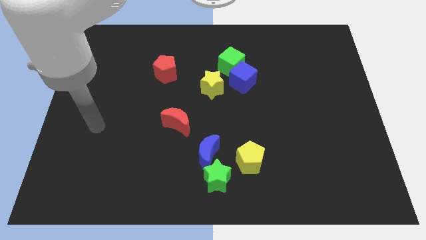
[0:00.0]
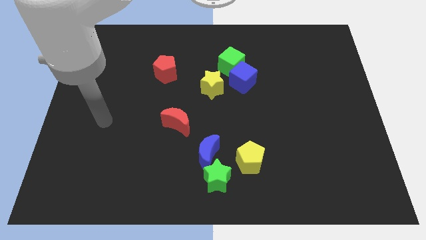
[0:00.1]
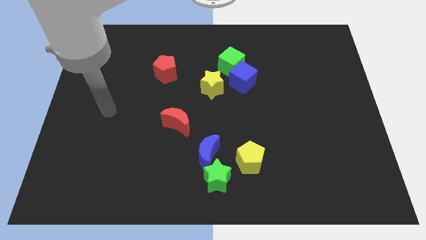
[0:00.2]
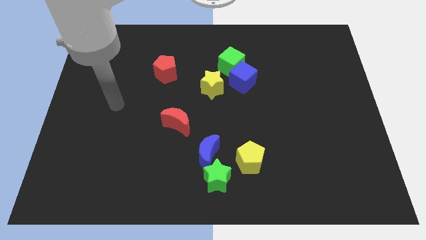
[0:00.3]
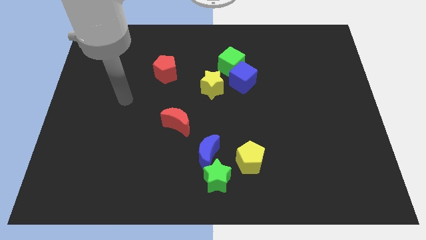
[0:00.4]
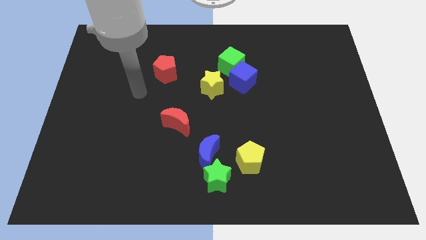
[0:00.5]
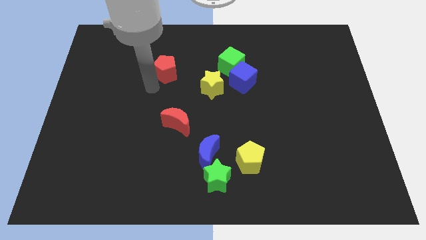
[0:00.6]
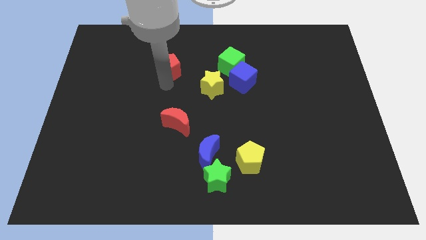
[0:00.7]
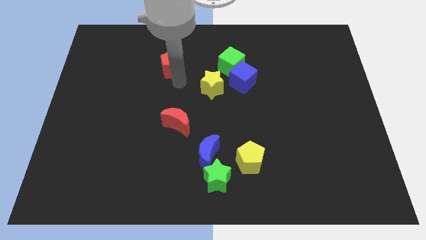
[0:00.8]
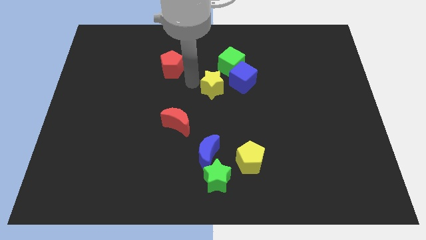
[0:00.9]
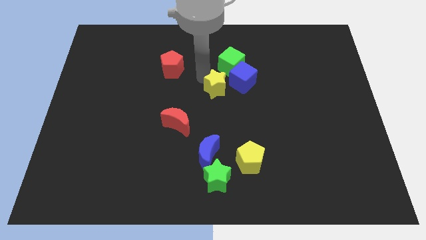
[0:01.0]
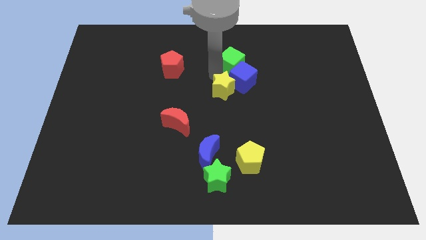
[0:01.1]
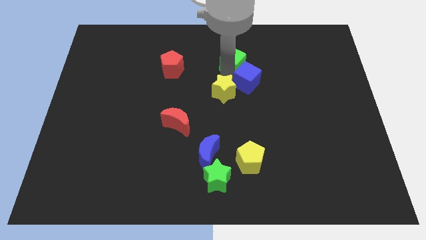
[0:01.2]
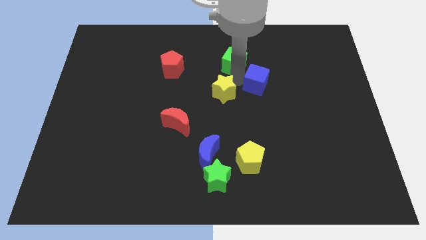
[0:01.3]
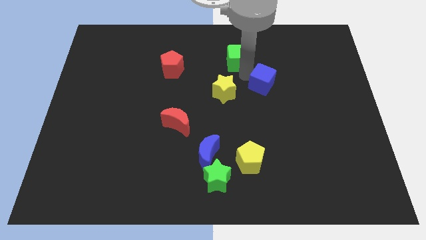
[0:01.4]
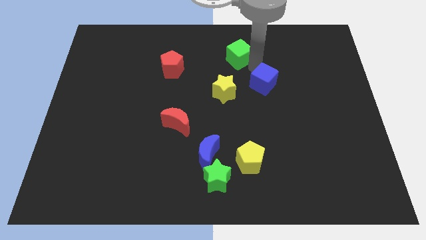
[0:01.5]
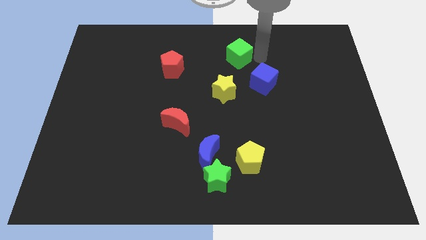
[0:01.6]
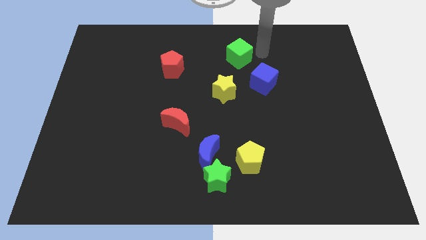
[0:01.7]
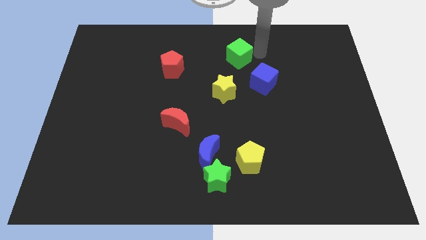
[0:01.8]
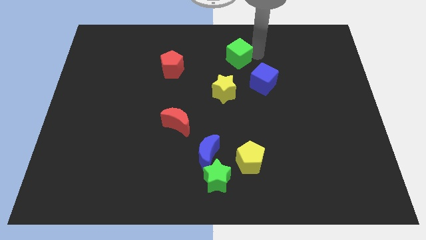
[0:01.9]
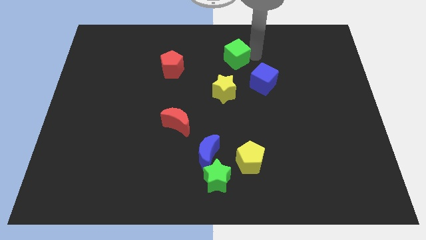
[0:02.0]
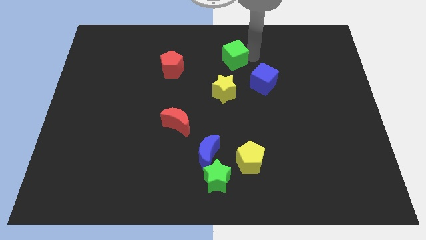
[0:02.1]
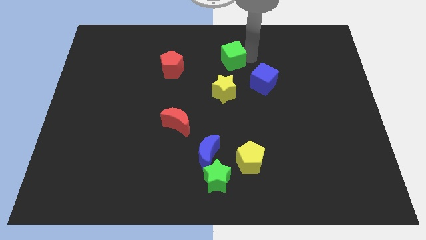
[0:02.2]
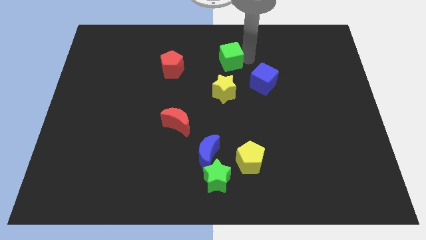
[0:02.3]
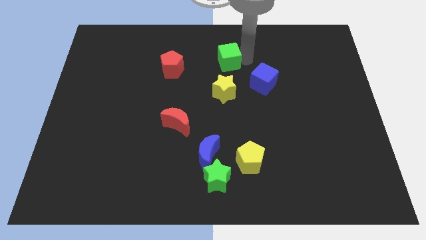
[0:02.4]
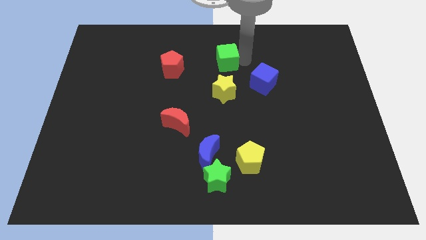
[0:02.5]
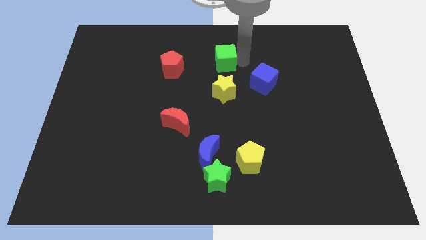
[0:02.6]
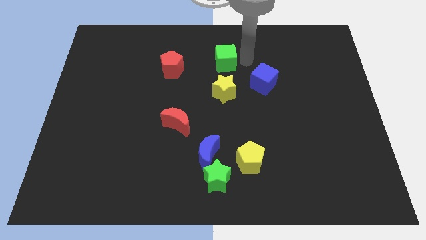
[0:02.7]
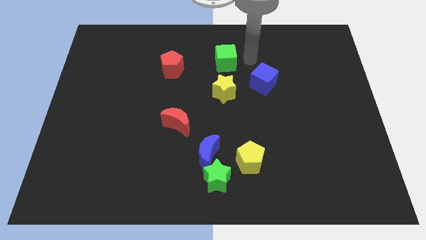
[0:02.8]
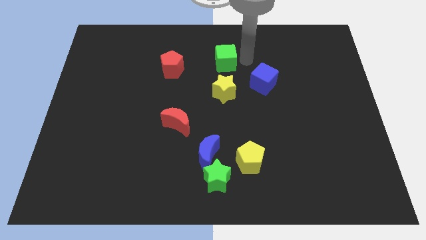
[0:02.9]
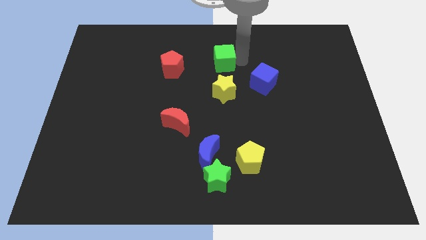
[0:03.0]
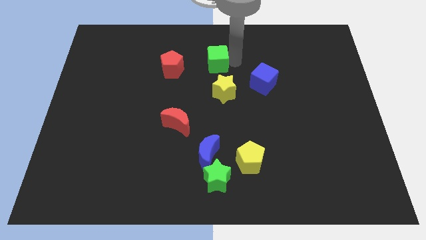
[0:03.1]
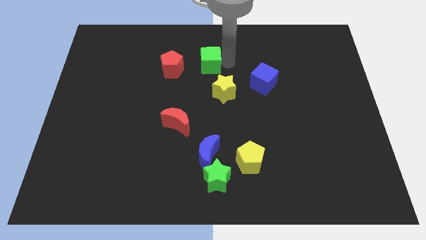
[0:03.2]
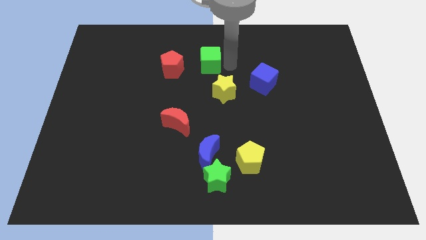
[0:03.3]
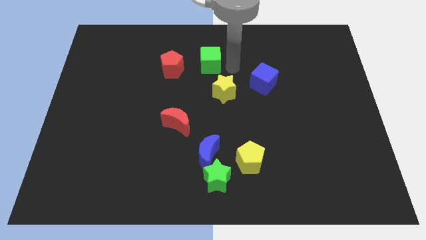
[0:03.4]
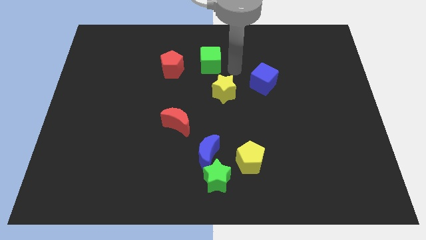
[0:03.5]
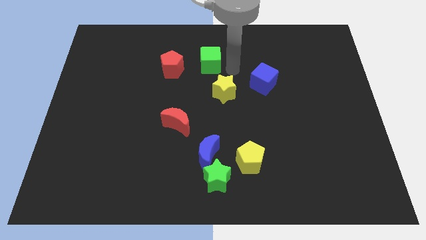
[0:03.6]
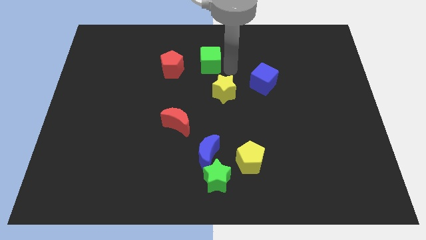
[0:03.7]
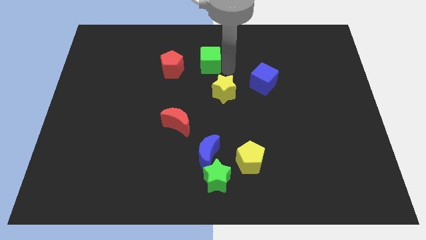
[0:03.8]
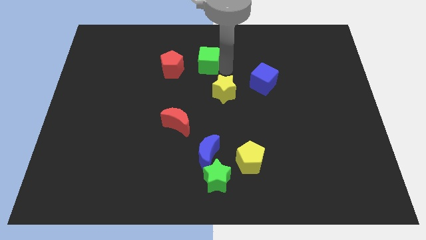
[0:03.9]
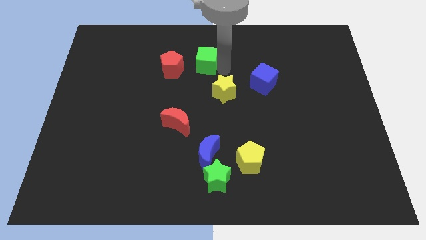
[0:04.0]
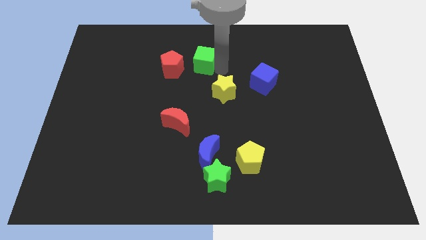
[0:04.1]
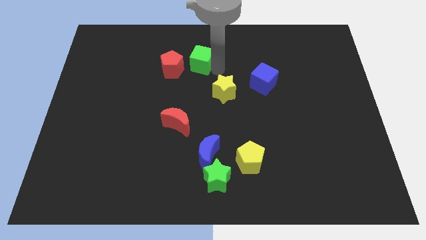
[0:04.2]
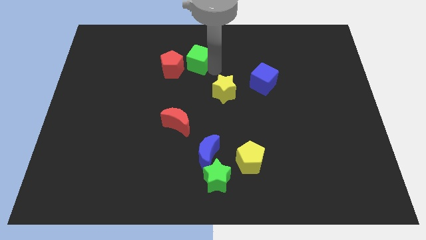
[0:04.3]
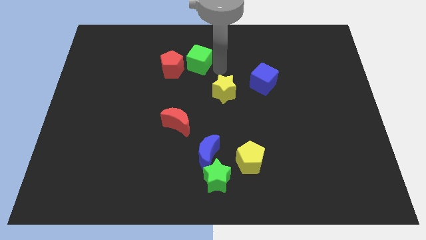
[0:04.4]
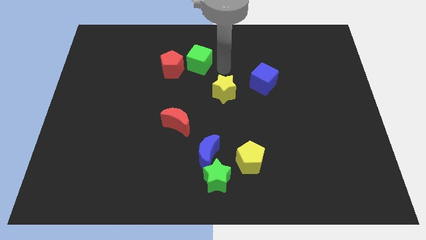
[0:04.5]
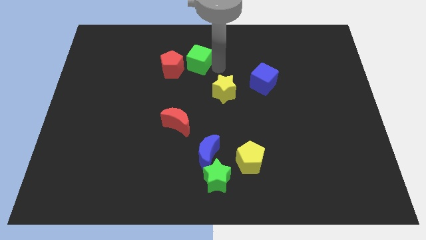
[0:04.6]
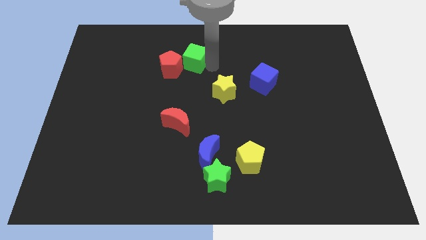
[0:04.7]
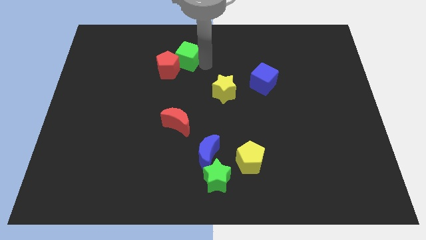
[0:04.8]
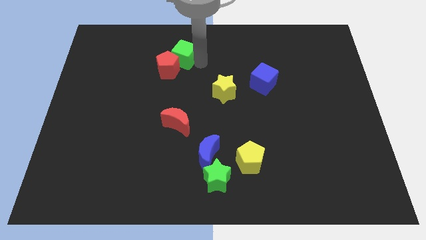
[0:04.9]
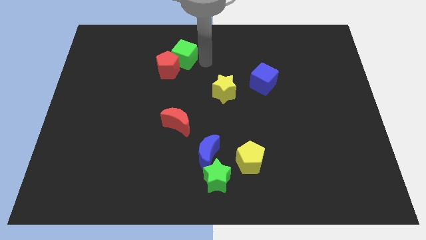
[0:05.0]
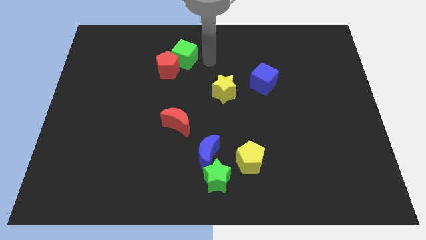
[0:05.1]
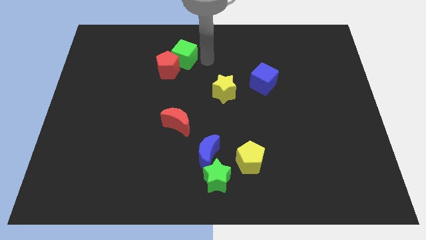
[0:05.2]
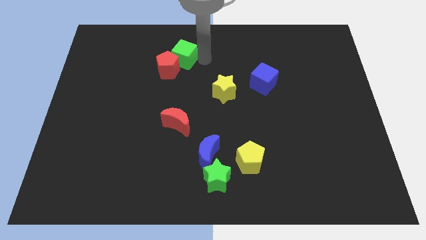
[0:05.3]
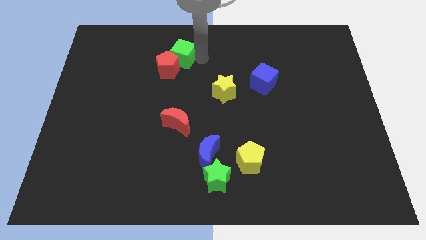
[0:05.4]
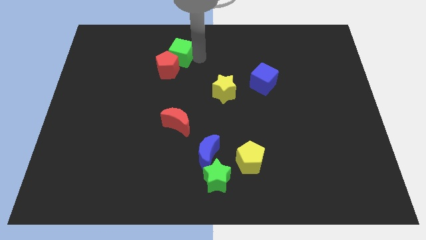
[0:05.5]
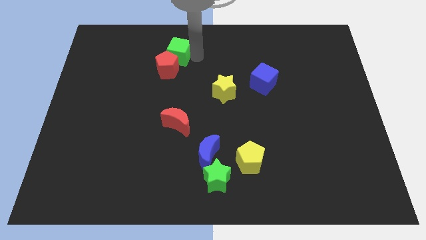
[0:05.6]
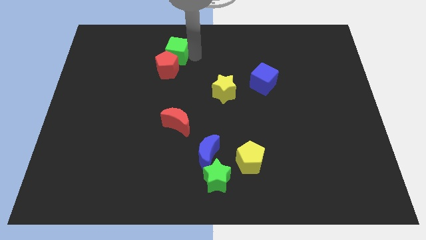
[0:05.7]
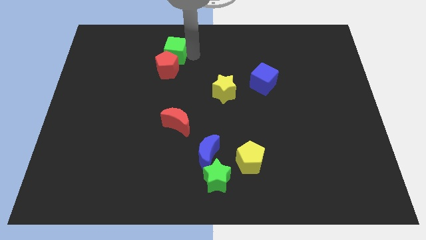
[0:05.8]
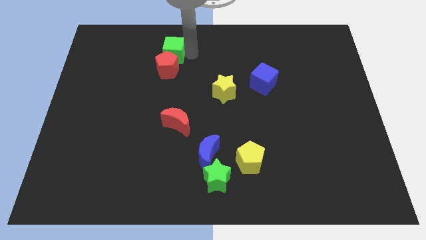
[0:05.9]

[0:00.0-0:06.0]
slide the green cube diagonally up and to the left of the red pentagon

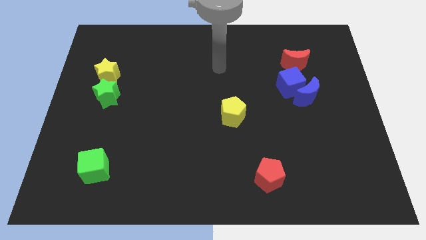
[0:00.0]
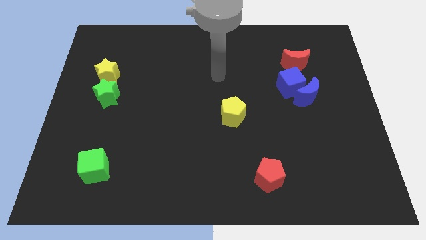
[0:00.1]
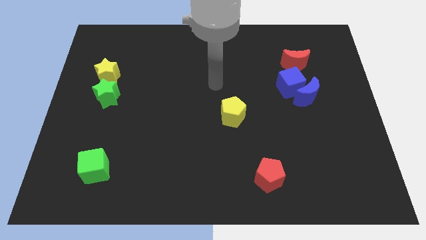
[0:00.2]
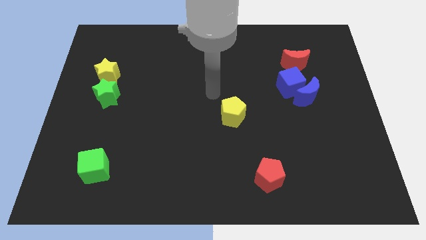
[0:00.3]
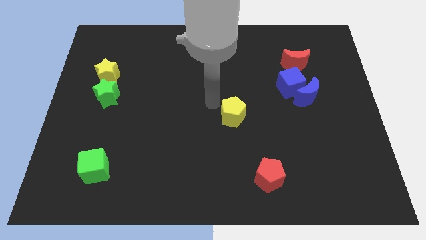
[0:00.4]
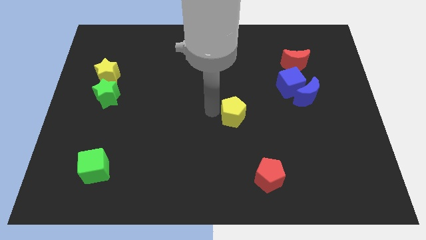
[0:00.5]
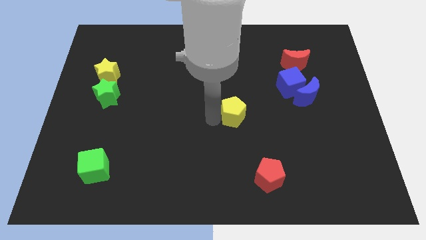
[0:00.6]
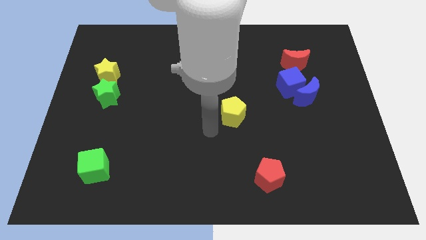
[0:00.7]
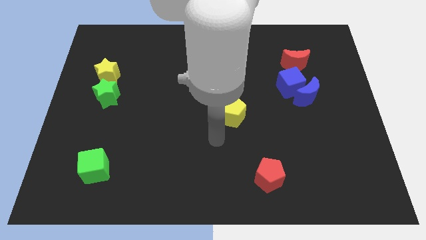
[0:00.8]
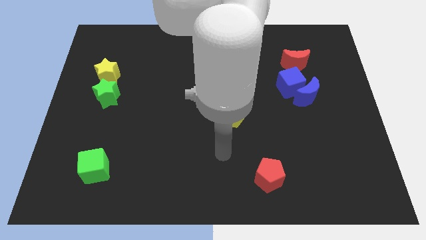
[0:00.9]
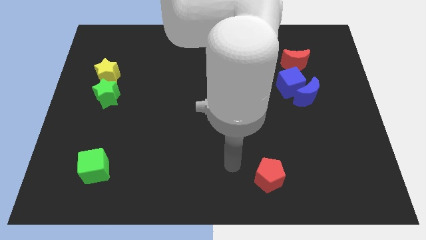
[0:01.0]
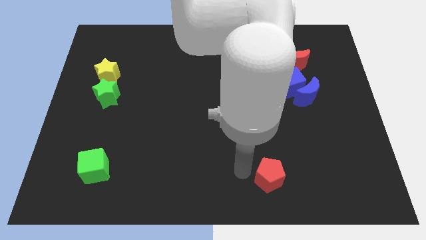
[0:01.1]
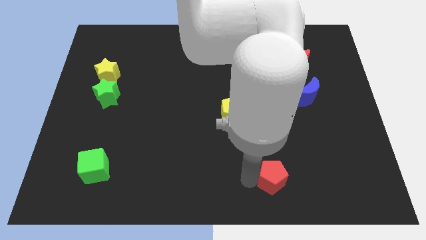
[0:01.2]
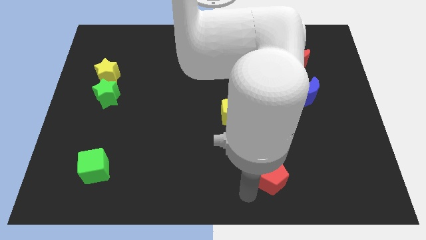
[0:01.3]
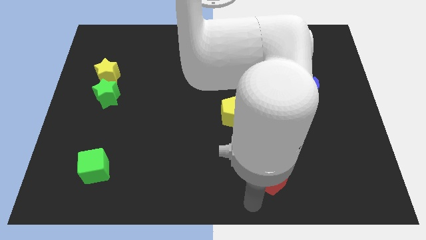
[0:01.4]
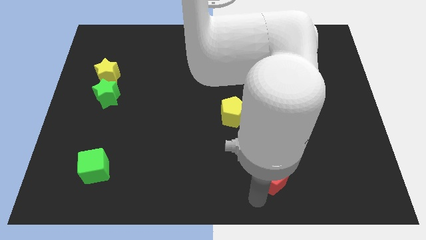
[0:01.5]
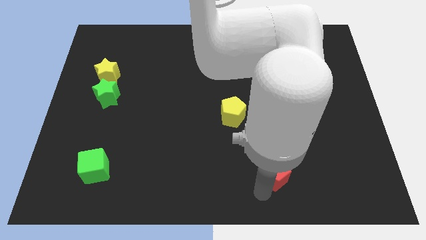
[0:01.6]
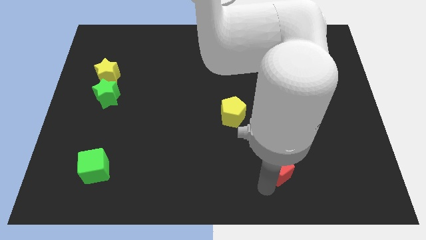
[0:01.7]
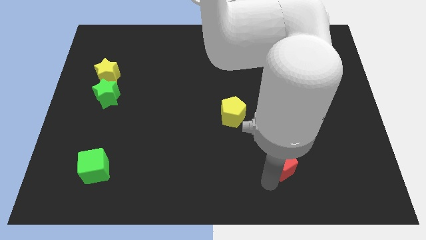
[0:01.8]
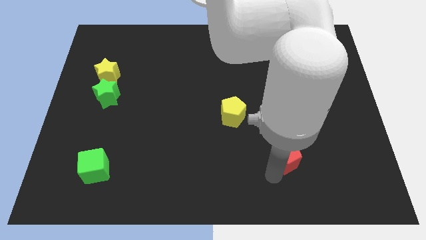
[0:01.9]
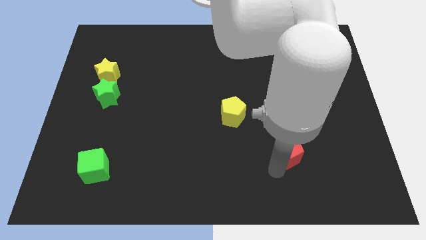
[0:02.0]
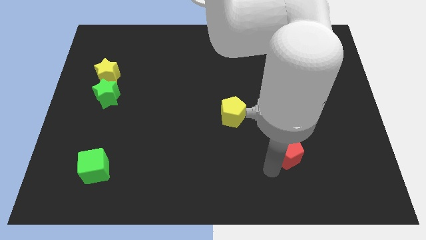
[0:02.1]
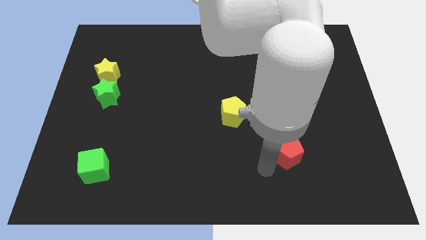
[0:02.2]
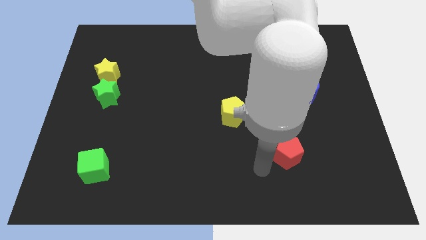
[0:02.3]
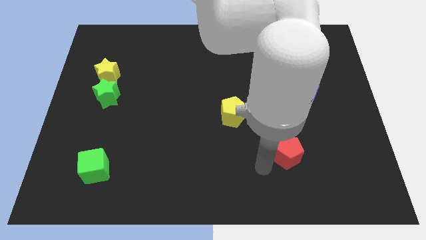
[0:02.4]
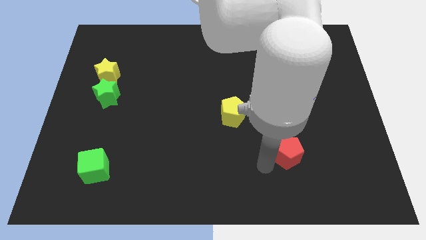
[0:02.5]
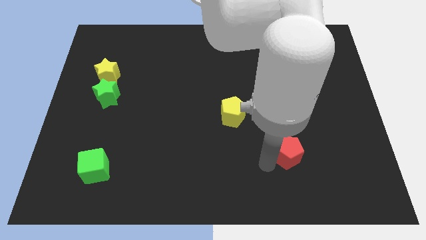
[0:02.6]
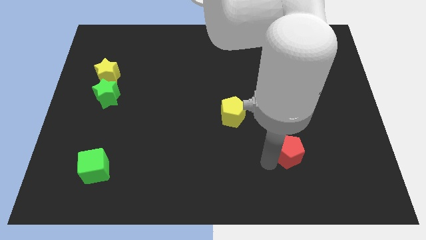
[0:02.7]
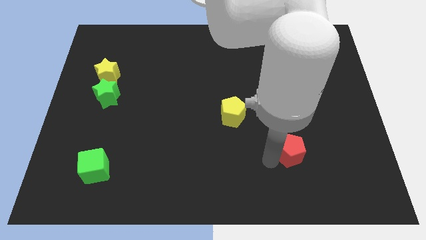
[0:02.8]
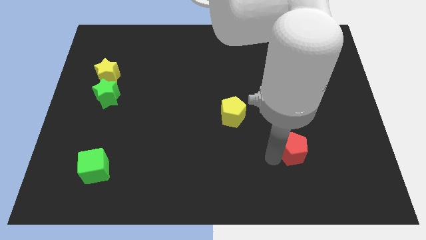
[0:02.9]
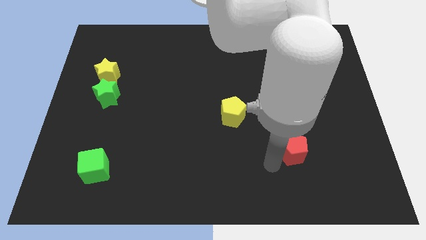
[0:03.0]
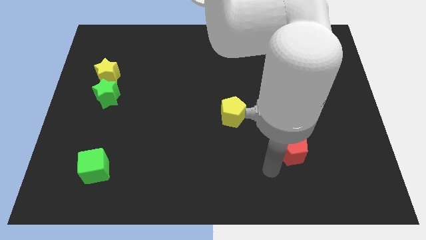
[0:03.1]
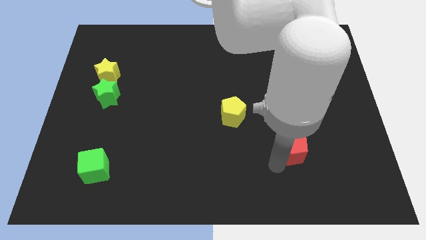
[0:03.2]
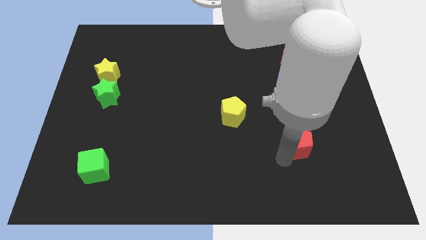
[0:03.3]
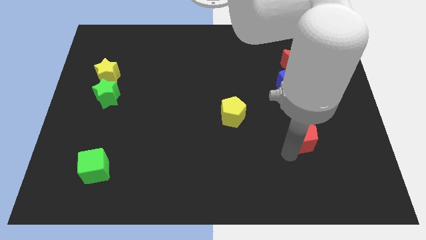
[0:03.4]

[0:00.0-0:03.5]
put the red pentagon to the bottom of the blue moon
